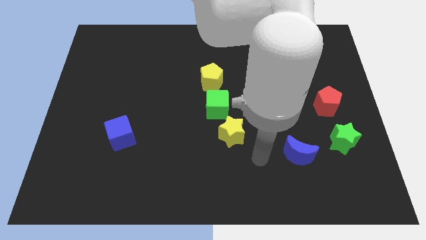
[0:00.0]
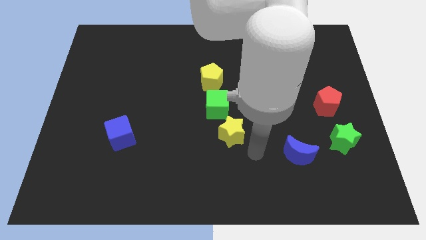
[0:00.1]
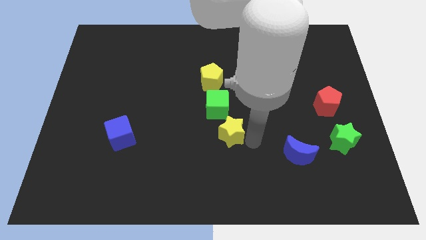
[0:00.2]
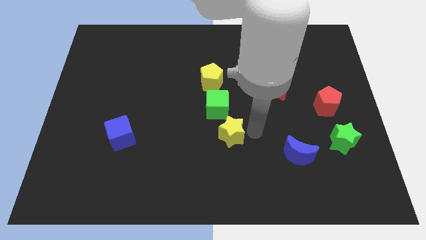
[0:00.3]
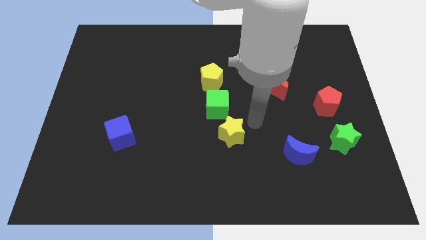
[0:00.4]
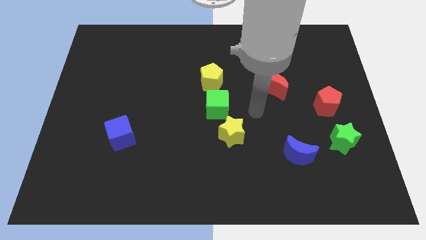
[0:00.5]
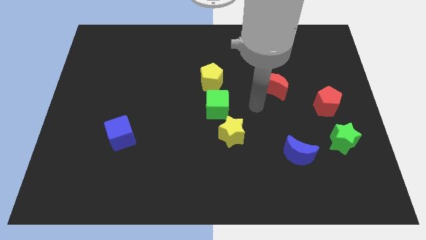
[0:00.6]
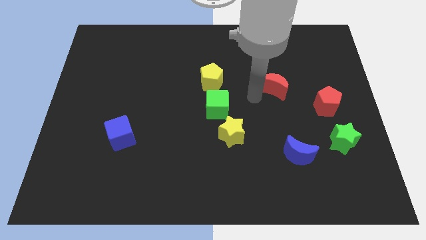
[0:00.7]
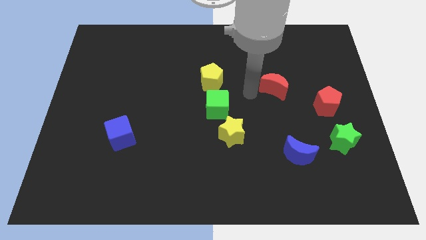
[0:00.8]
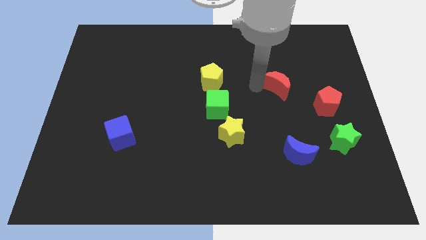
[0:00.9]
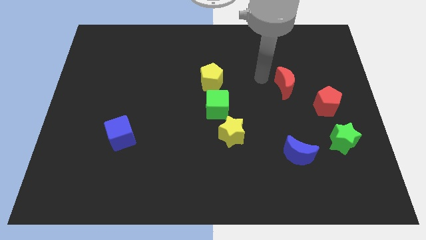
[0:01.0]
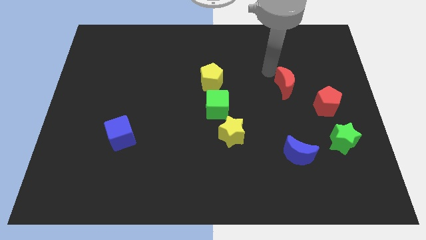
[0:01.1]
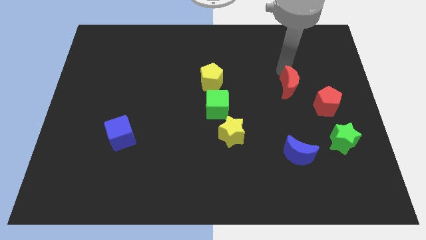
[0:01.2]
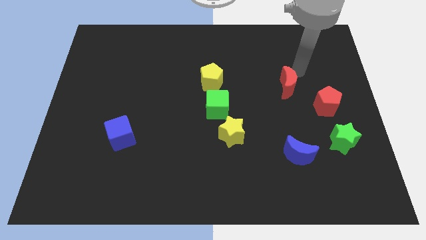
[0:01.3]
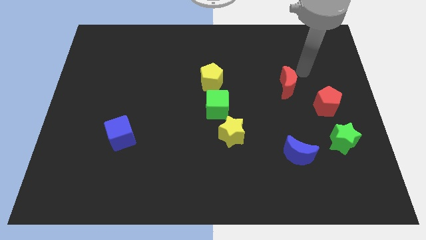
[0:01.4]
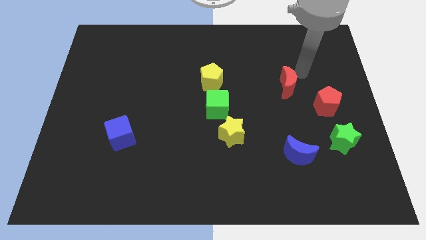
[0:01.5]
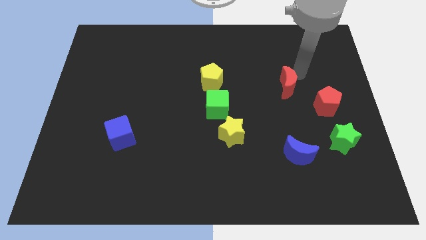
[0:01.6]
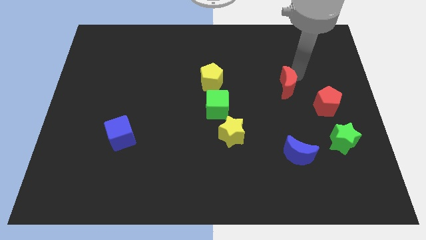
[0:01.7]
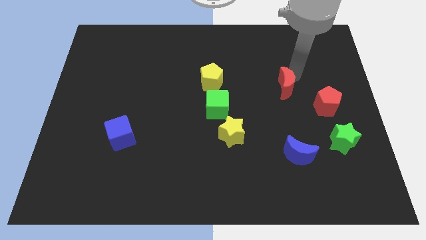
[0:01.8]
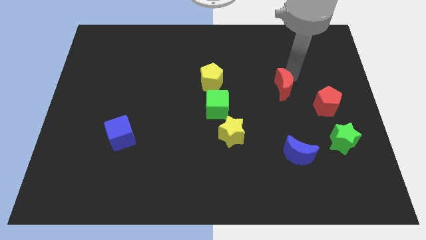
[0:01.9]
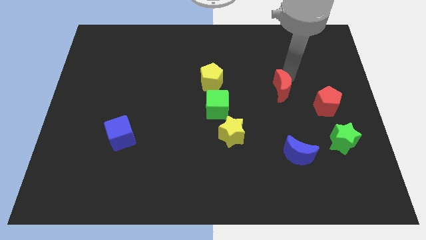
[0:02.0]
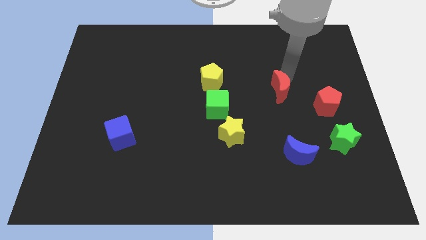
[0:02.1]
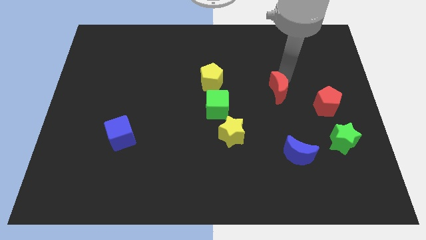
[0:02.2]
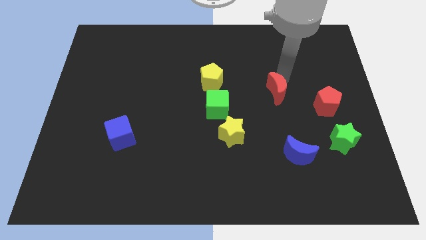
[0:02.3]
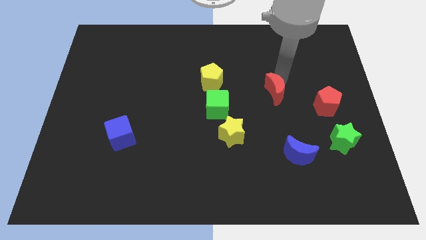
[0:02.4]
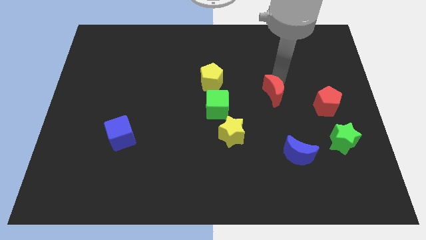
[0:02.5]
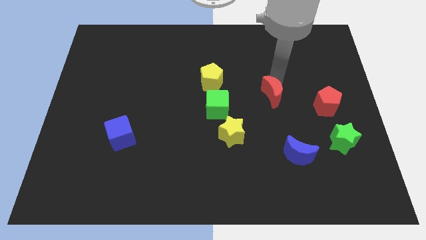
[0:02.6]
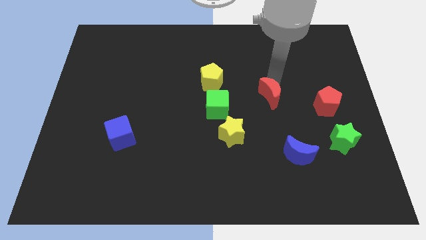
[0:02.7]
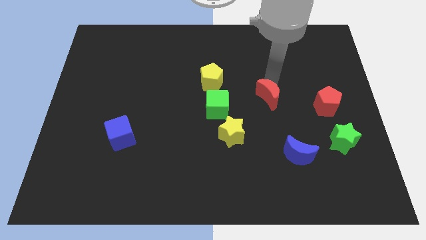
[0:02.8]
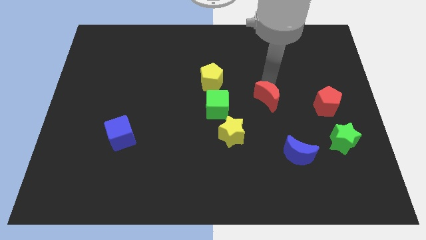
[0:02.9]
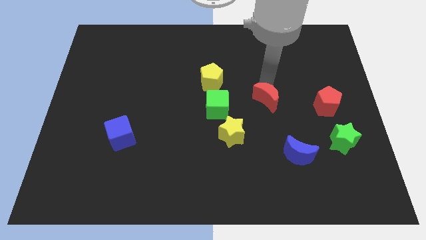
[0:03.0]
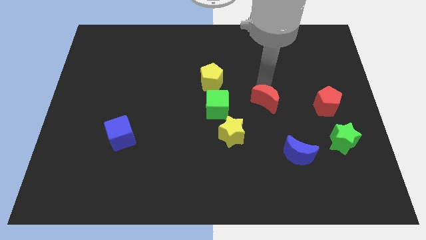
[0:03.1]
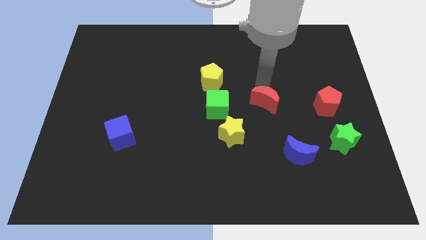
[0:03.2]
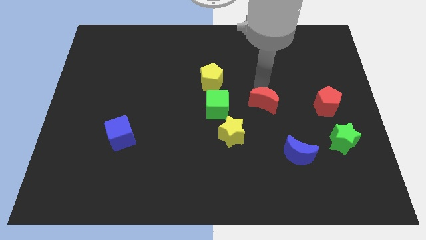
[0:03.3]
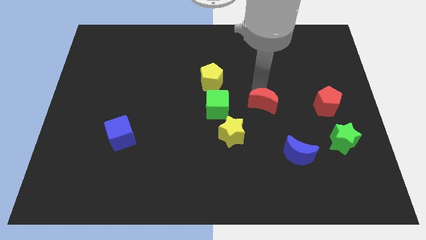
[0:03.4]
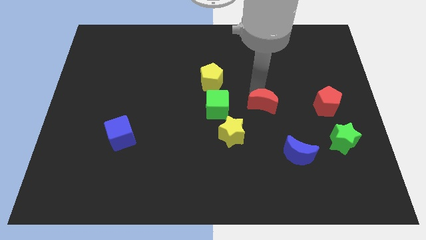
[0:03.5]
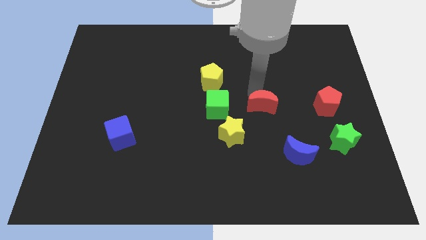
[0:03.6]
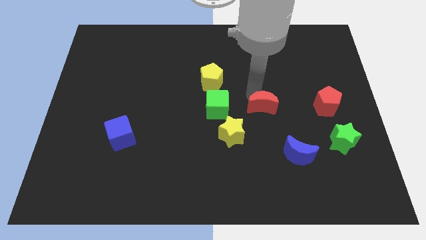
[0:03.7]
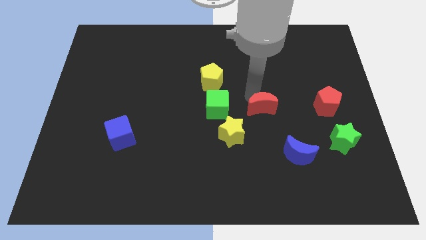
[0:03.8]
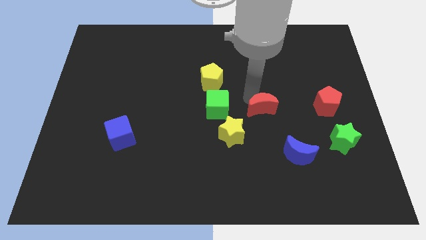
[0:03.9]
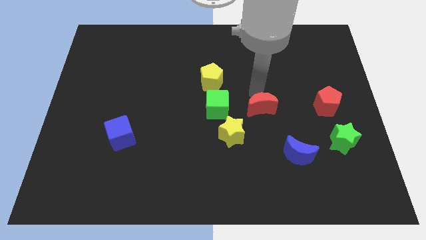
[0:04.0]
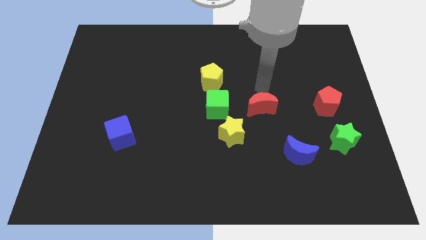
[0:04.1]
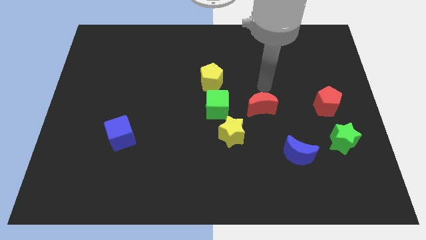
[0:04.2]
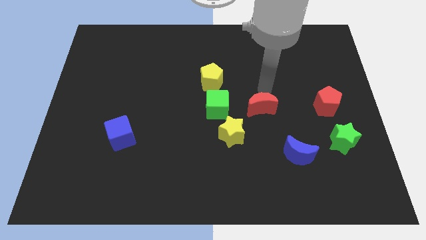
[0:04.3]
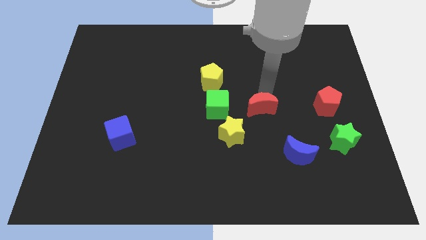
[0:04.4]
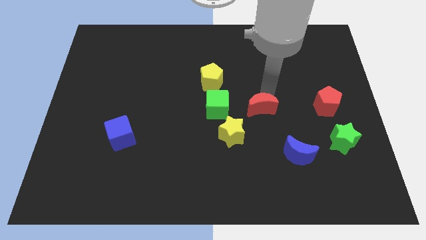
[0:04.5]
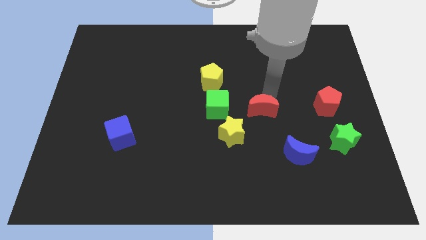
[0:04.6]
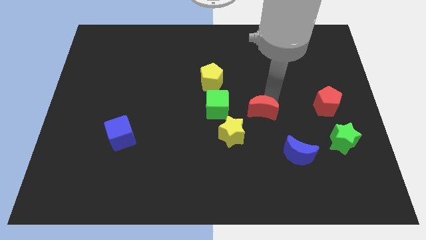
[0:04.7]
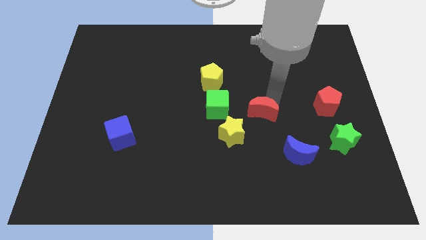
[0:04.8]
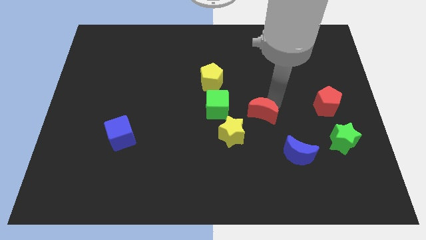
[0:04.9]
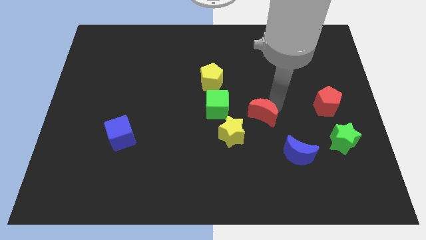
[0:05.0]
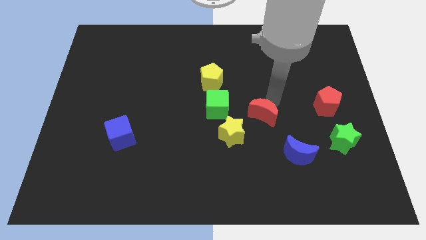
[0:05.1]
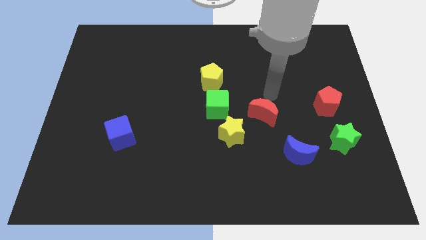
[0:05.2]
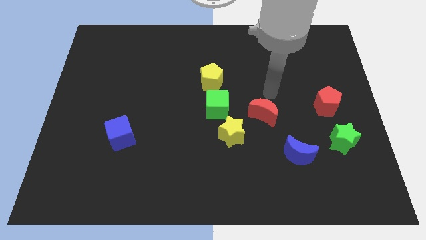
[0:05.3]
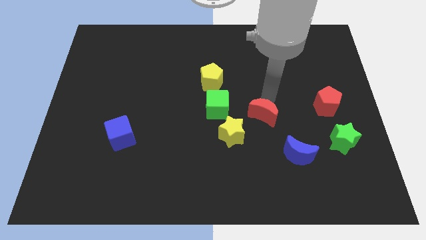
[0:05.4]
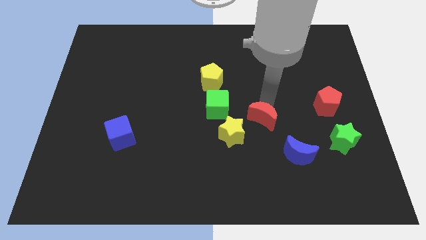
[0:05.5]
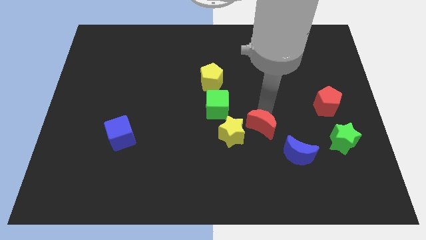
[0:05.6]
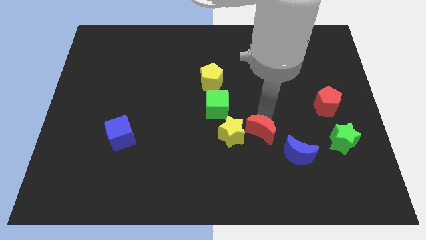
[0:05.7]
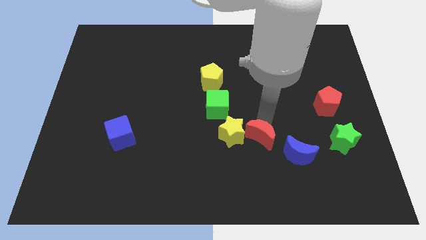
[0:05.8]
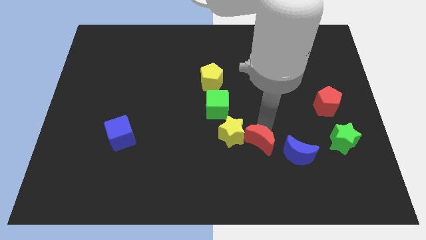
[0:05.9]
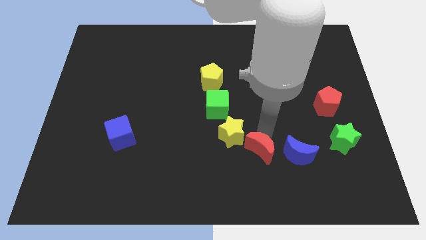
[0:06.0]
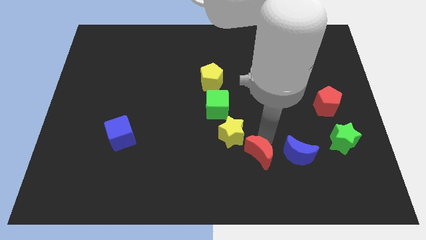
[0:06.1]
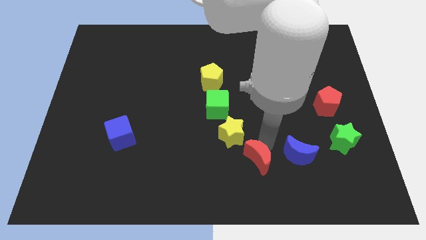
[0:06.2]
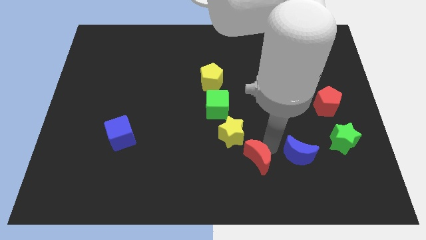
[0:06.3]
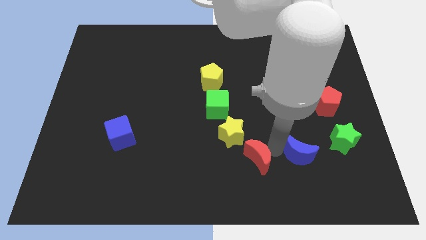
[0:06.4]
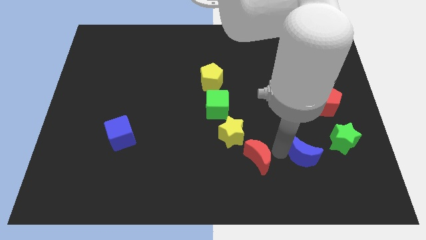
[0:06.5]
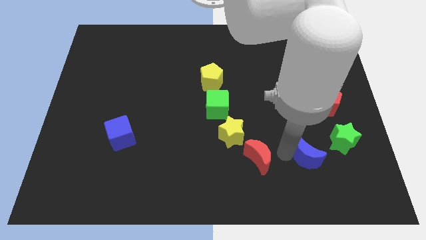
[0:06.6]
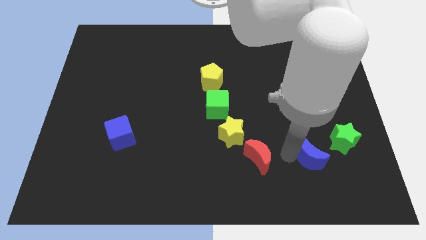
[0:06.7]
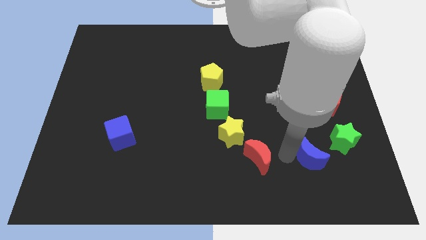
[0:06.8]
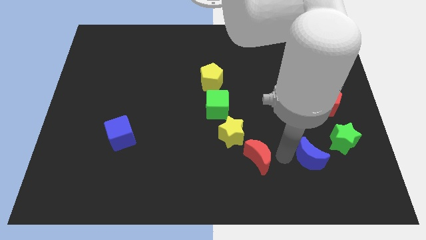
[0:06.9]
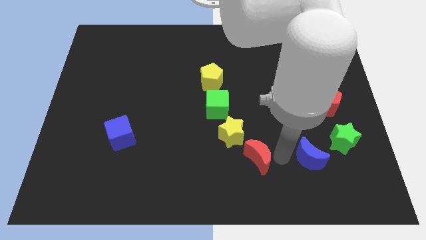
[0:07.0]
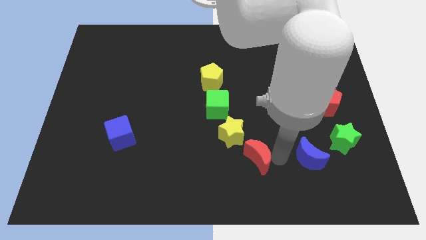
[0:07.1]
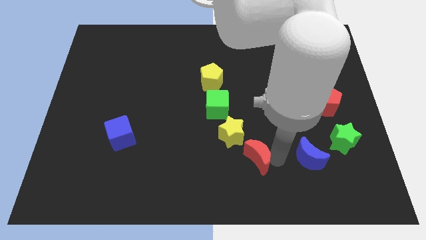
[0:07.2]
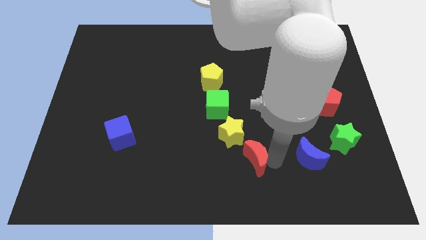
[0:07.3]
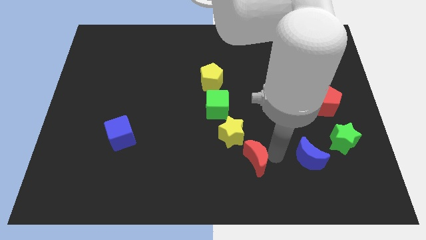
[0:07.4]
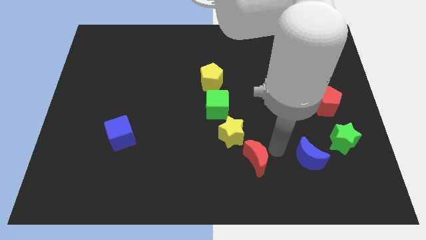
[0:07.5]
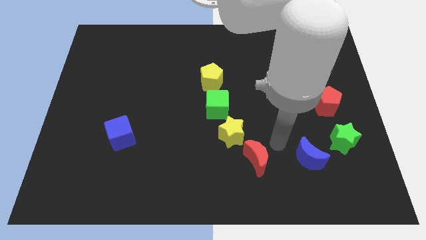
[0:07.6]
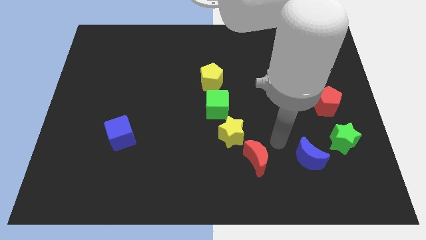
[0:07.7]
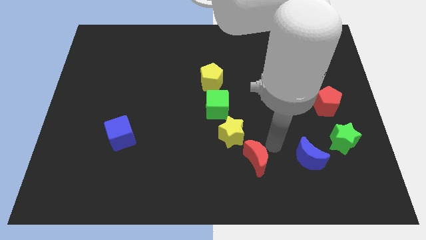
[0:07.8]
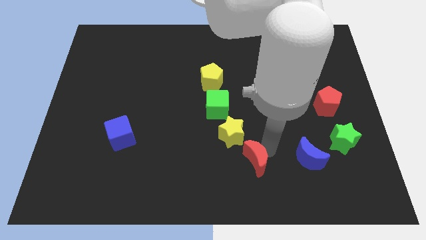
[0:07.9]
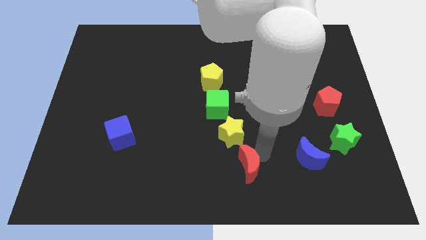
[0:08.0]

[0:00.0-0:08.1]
put the red moon below the yellow star
